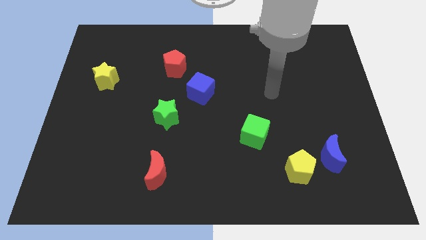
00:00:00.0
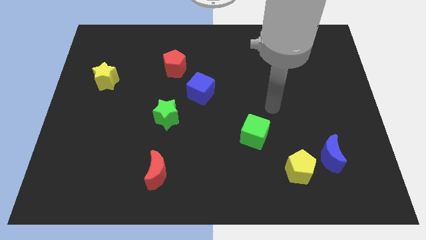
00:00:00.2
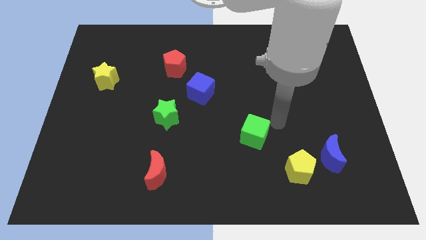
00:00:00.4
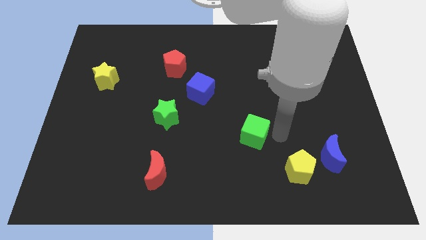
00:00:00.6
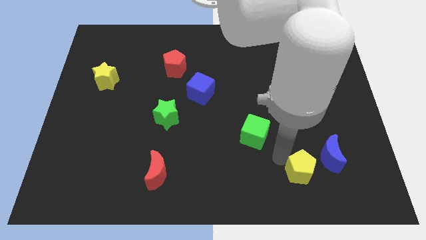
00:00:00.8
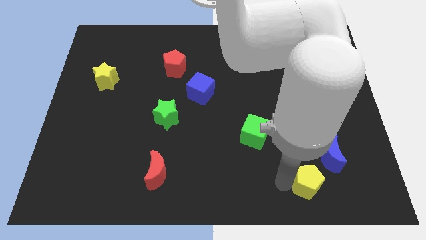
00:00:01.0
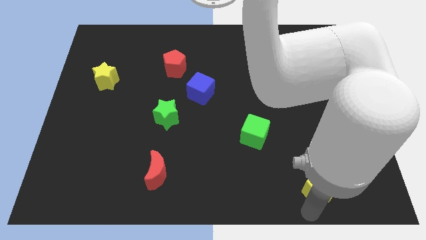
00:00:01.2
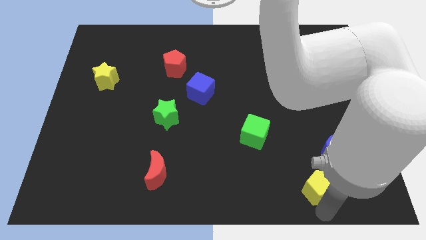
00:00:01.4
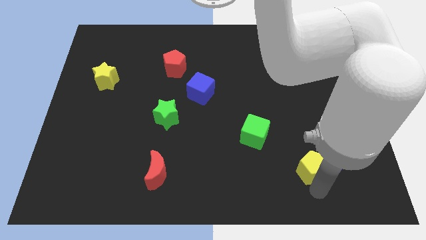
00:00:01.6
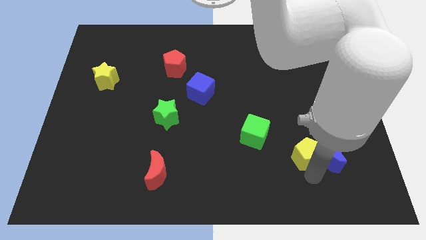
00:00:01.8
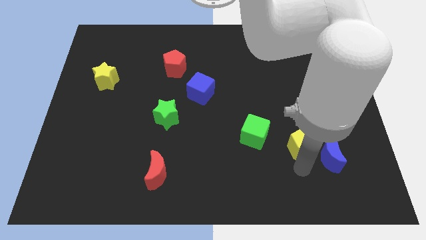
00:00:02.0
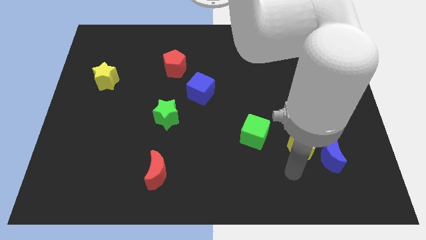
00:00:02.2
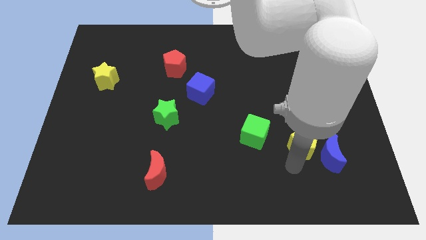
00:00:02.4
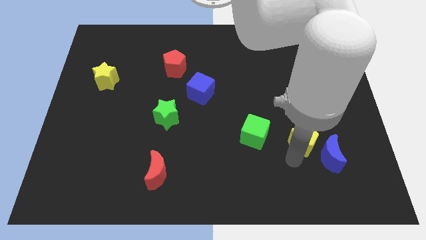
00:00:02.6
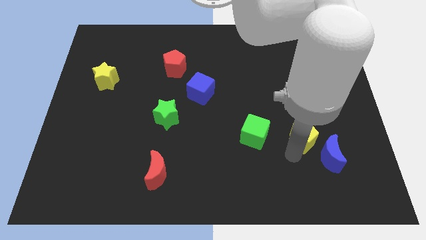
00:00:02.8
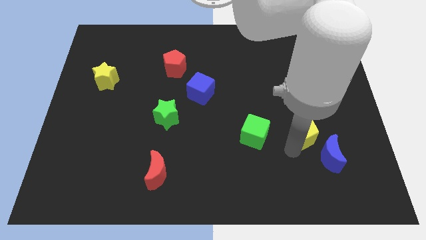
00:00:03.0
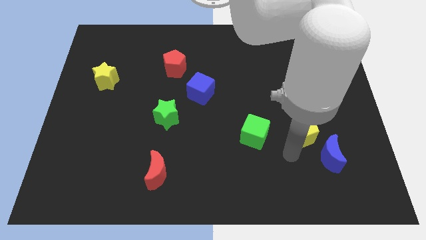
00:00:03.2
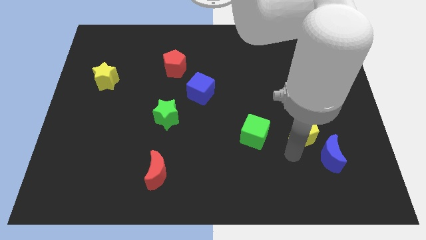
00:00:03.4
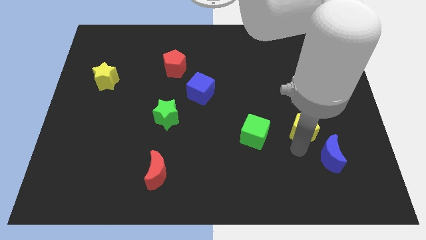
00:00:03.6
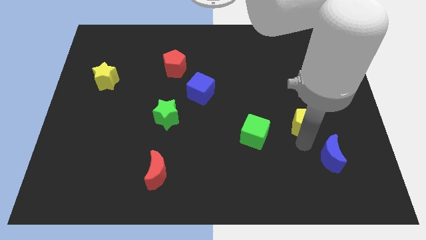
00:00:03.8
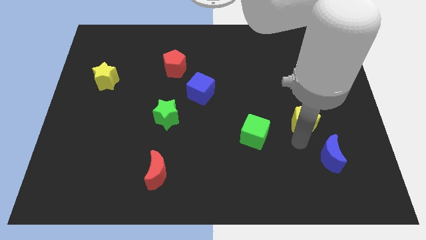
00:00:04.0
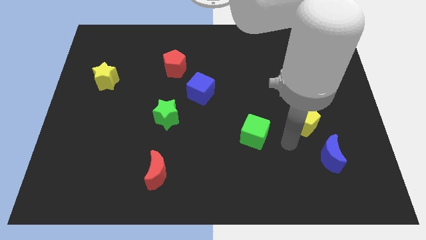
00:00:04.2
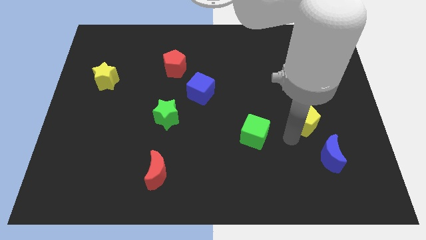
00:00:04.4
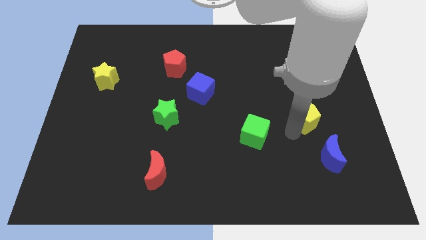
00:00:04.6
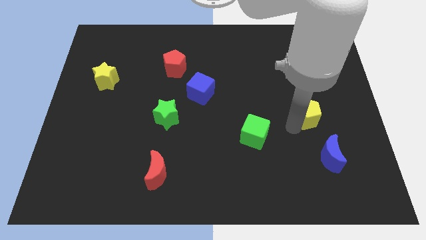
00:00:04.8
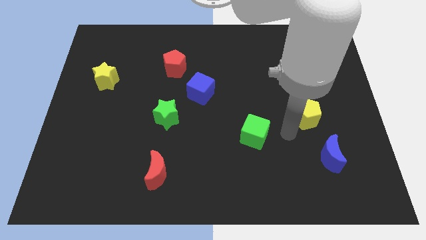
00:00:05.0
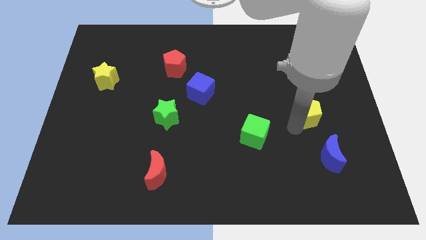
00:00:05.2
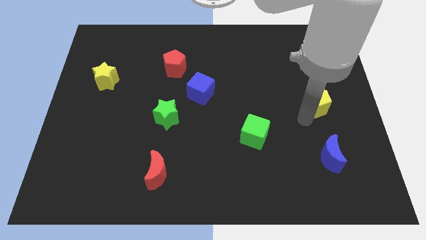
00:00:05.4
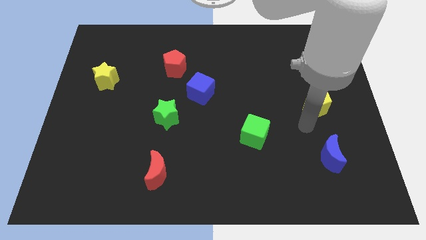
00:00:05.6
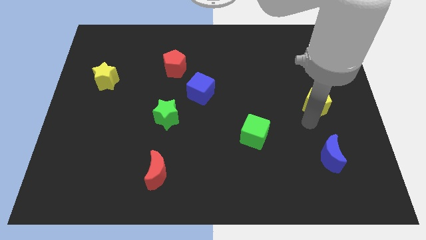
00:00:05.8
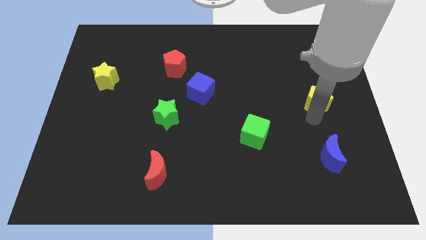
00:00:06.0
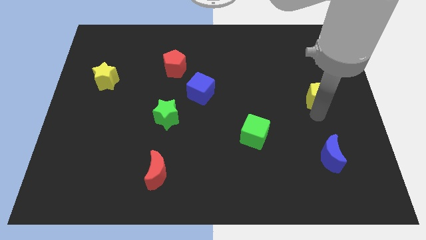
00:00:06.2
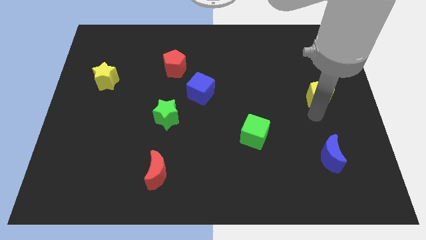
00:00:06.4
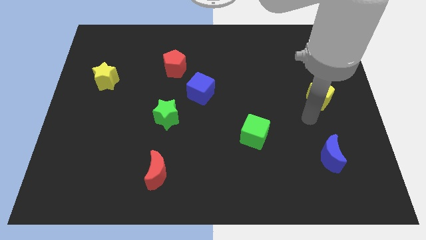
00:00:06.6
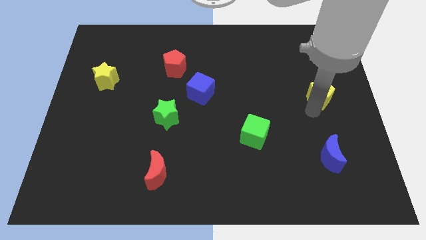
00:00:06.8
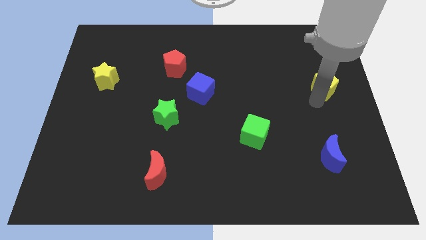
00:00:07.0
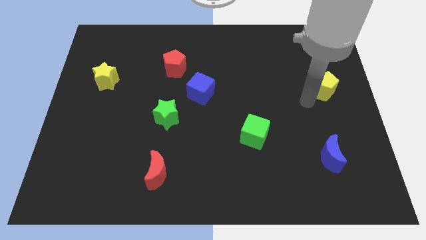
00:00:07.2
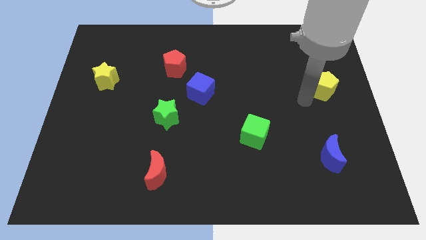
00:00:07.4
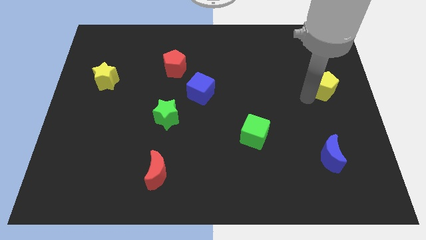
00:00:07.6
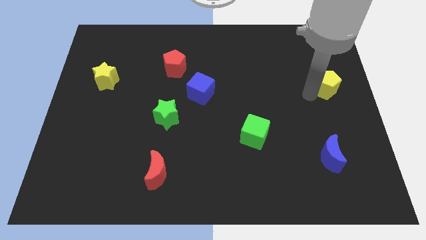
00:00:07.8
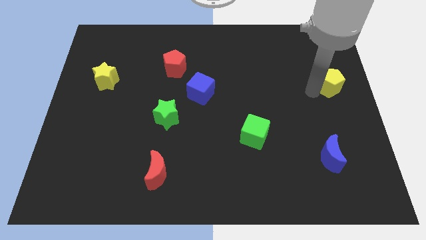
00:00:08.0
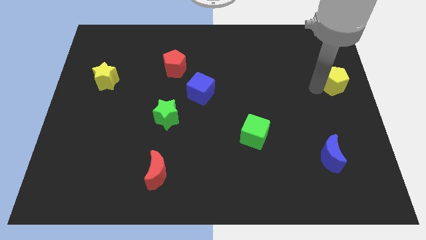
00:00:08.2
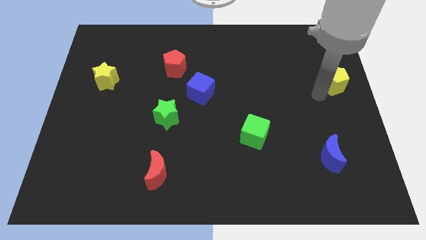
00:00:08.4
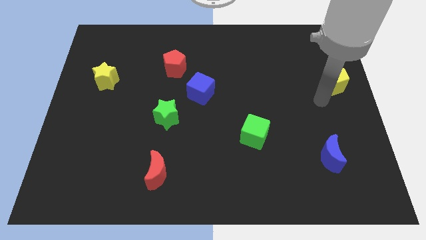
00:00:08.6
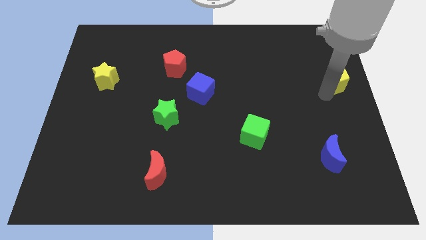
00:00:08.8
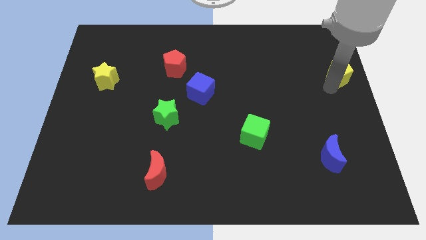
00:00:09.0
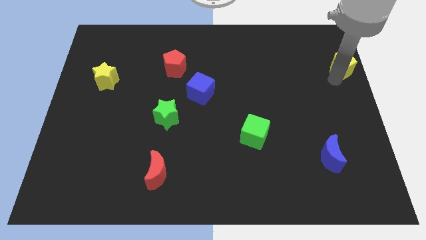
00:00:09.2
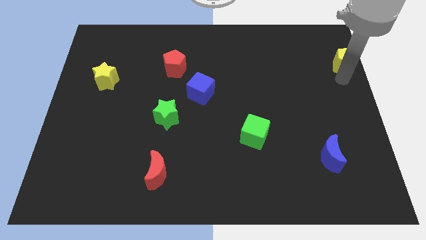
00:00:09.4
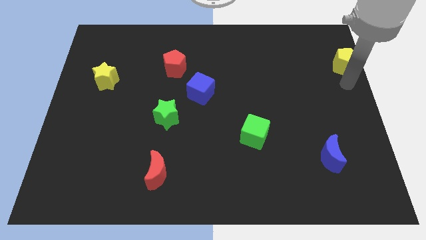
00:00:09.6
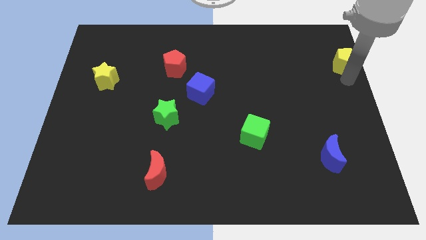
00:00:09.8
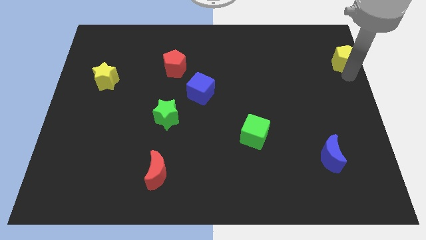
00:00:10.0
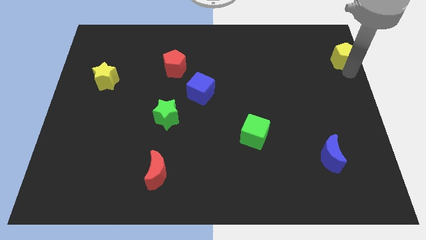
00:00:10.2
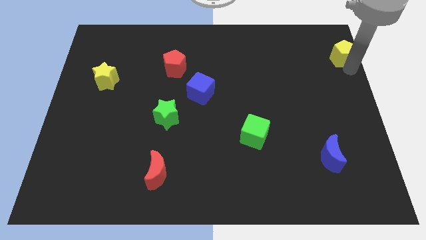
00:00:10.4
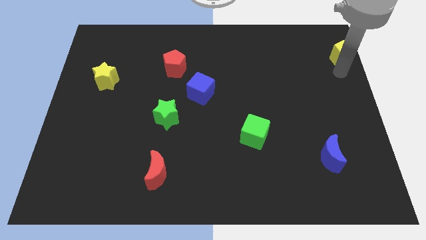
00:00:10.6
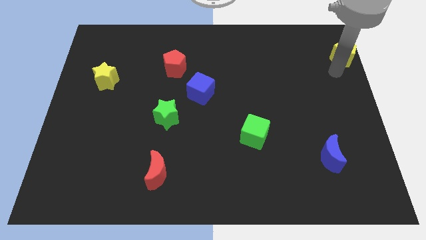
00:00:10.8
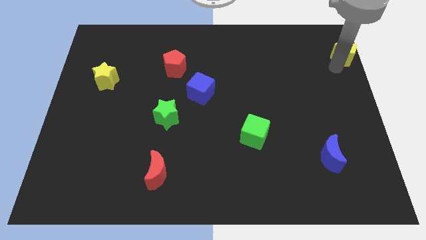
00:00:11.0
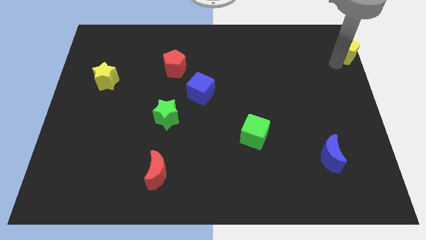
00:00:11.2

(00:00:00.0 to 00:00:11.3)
push the yellow pentagon to the top right corner

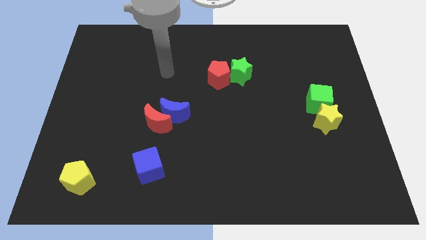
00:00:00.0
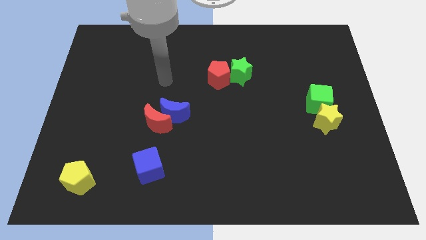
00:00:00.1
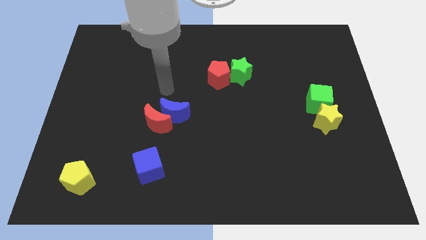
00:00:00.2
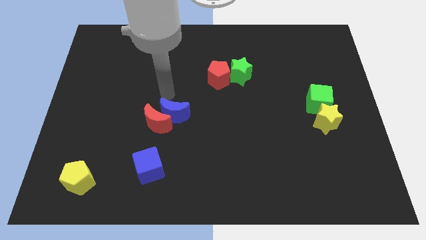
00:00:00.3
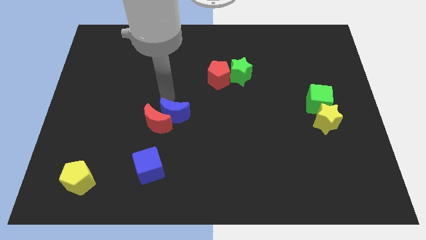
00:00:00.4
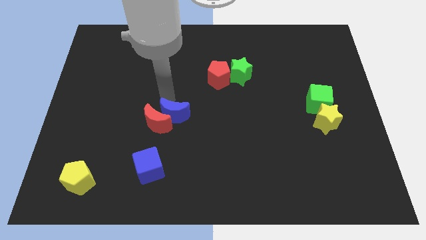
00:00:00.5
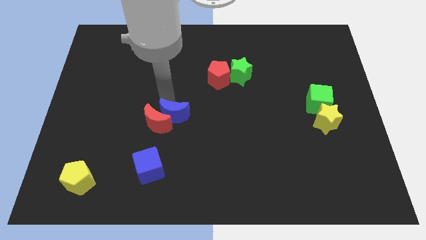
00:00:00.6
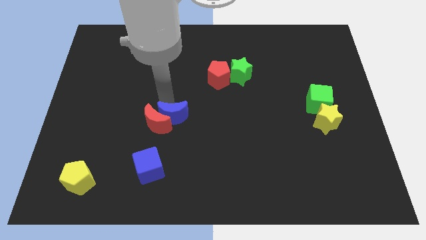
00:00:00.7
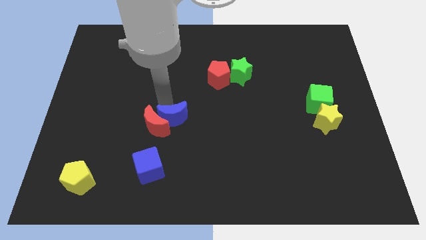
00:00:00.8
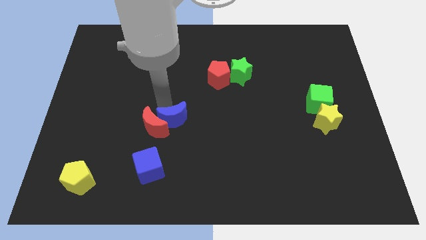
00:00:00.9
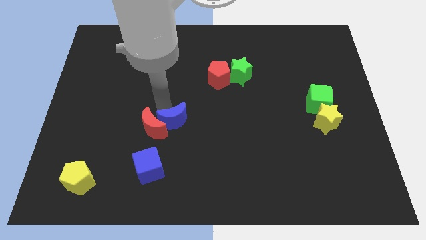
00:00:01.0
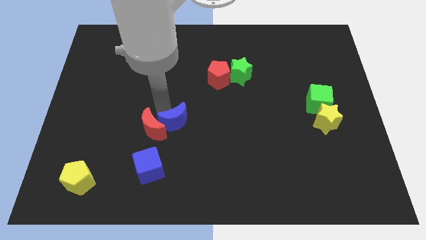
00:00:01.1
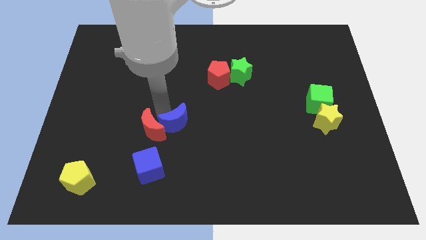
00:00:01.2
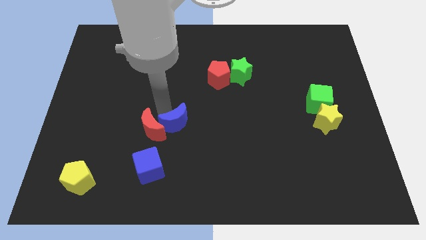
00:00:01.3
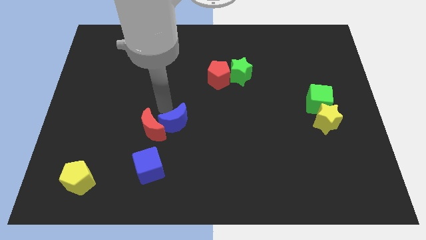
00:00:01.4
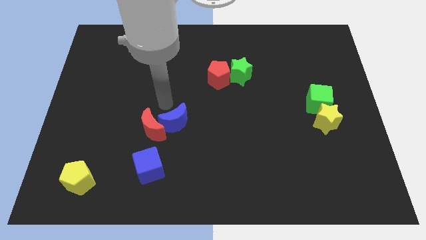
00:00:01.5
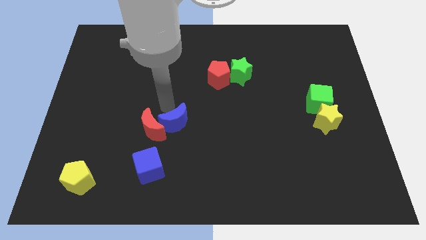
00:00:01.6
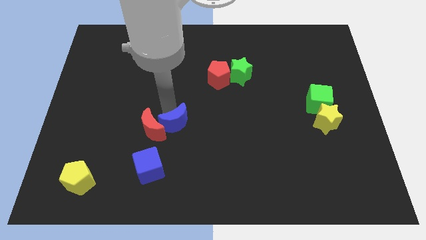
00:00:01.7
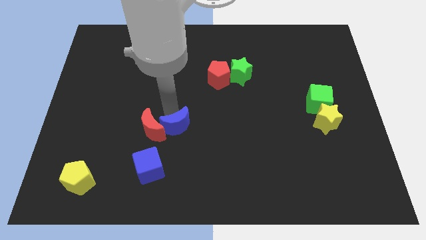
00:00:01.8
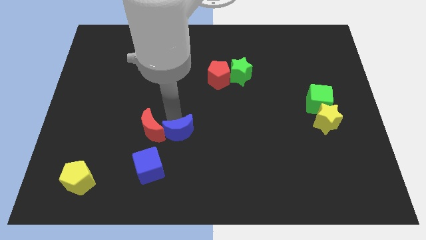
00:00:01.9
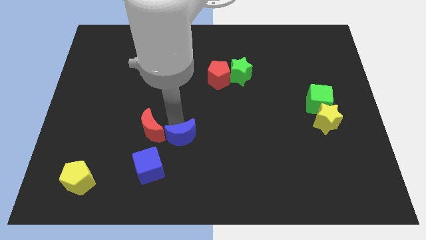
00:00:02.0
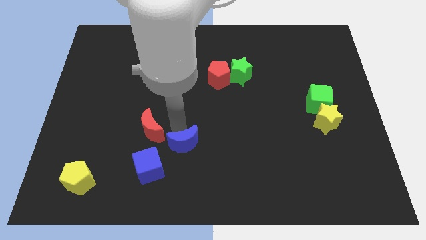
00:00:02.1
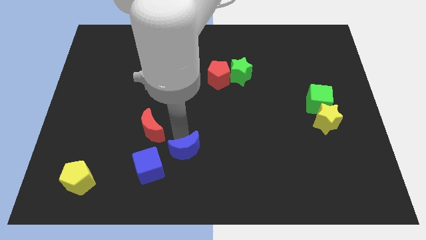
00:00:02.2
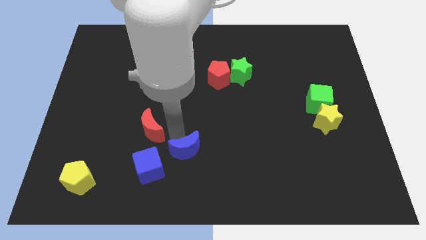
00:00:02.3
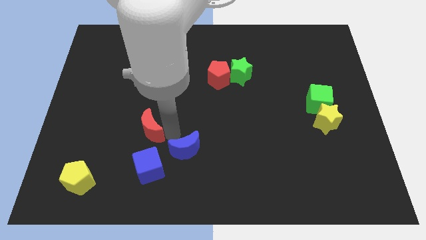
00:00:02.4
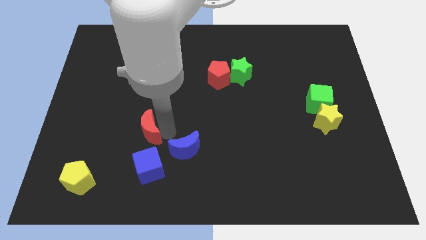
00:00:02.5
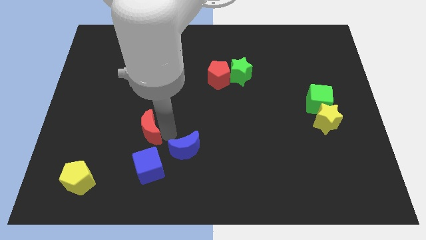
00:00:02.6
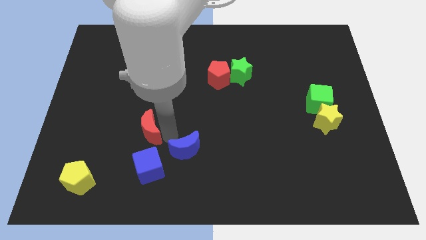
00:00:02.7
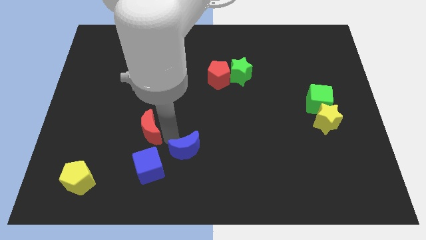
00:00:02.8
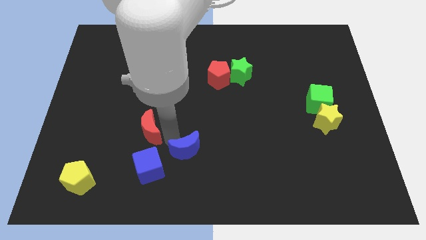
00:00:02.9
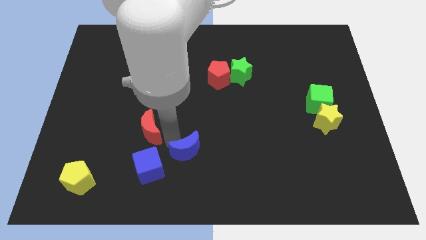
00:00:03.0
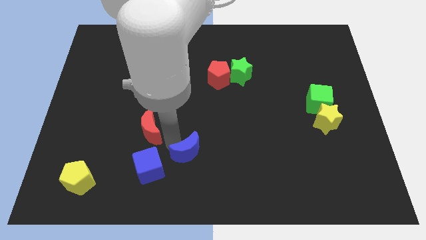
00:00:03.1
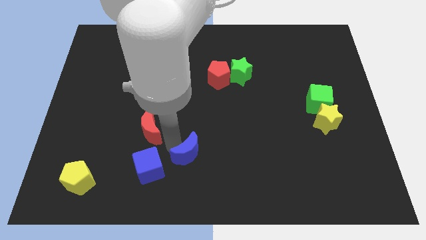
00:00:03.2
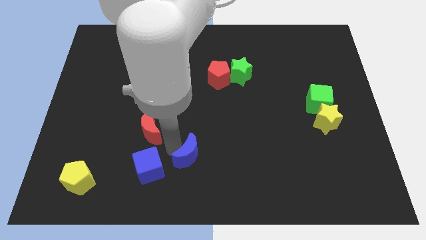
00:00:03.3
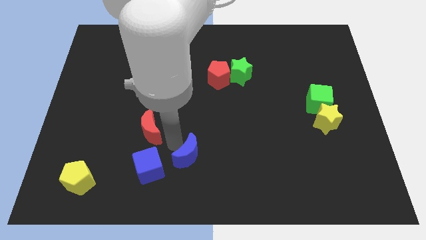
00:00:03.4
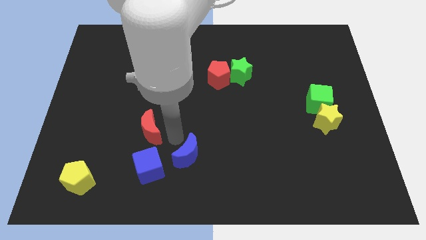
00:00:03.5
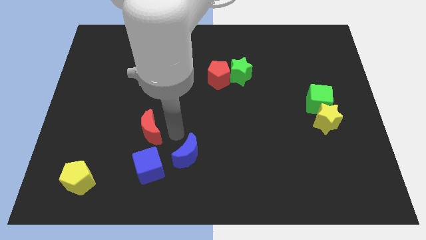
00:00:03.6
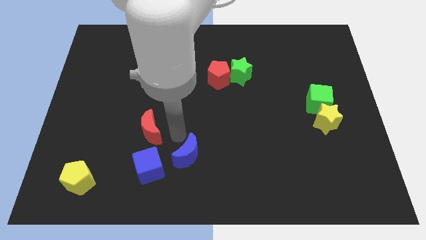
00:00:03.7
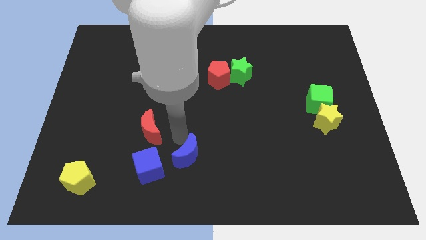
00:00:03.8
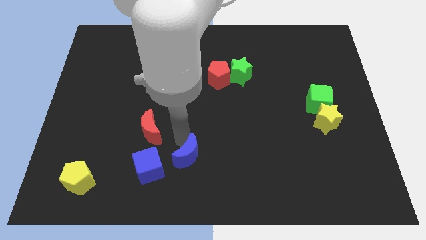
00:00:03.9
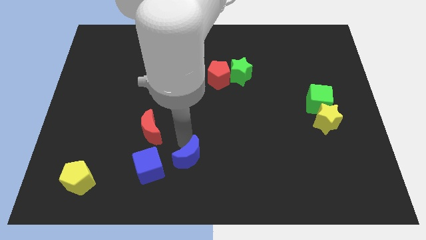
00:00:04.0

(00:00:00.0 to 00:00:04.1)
put the blue moon to the bottom
